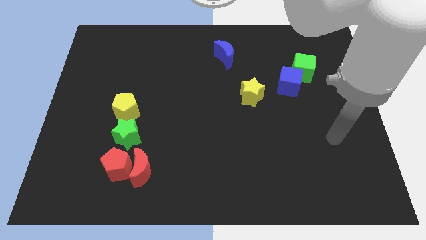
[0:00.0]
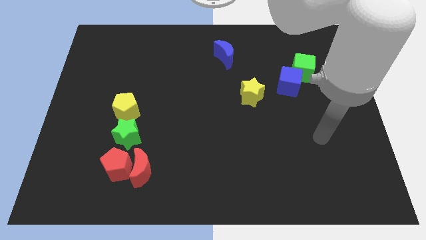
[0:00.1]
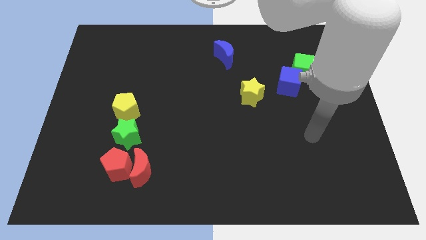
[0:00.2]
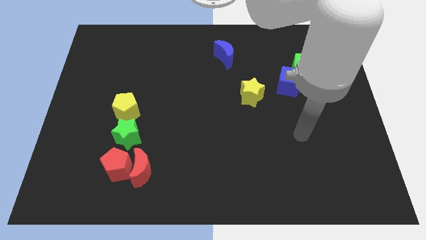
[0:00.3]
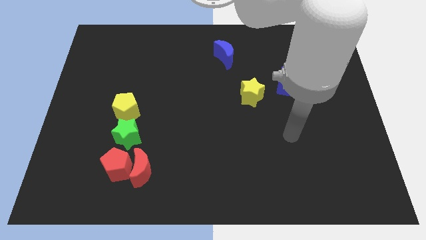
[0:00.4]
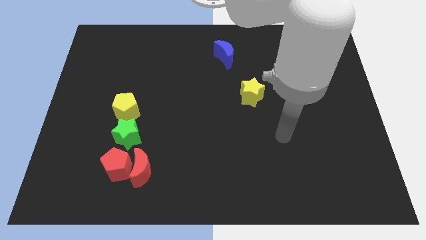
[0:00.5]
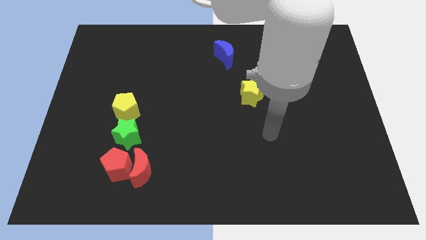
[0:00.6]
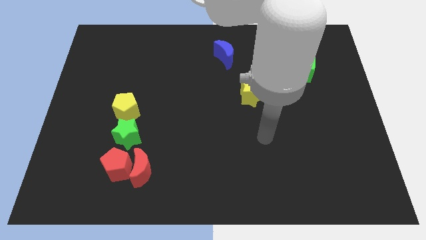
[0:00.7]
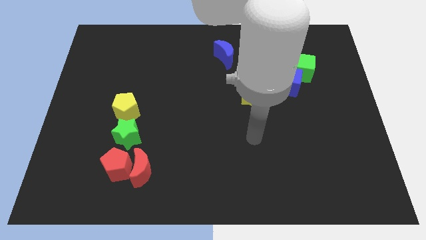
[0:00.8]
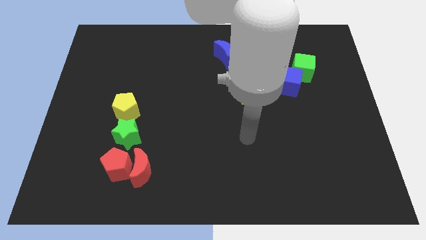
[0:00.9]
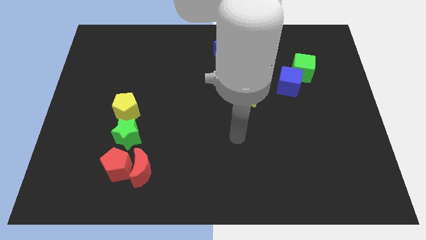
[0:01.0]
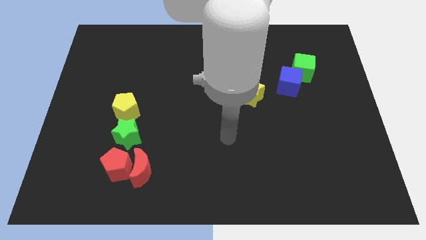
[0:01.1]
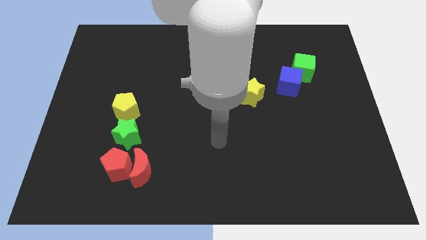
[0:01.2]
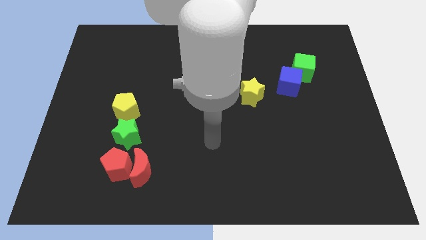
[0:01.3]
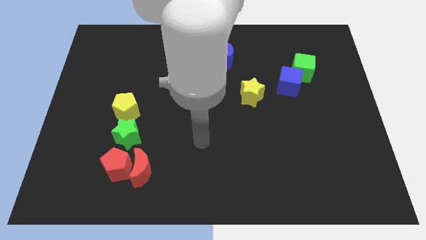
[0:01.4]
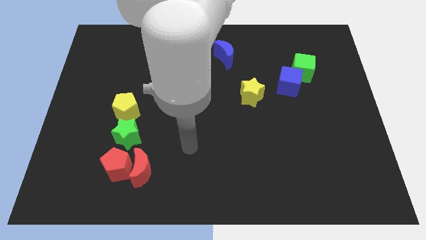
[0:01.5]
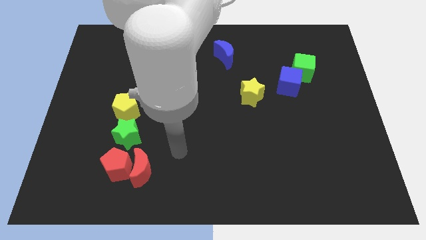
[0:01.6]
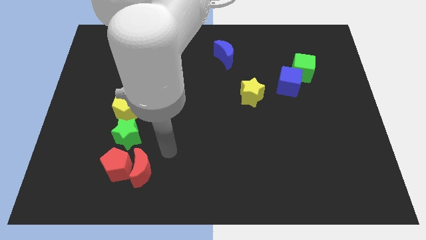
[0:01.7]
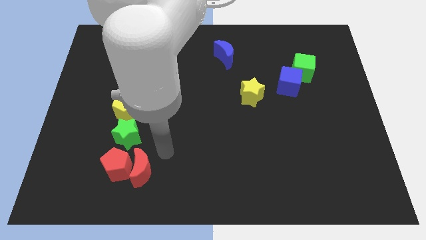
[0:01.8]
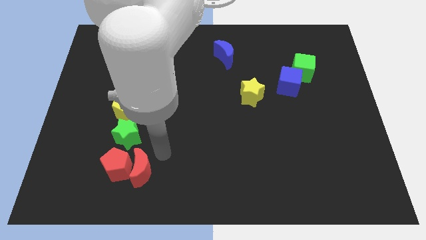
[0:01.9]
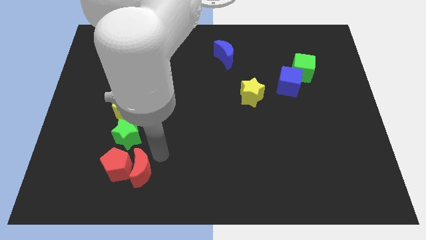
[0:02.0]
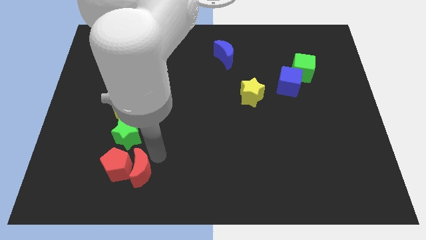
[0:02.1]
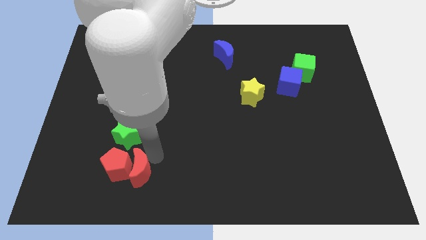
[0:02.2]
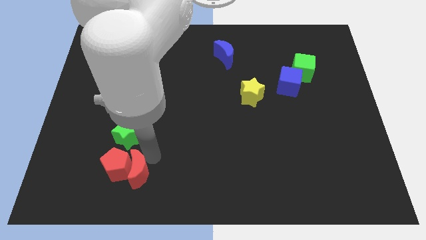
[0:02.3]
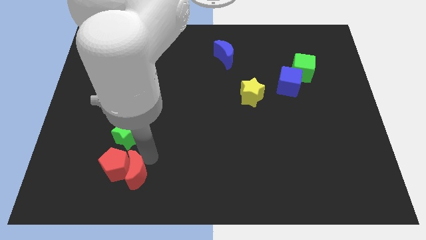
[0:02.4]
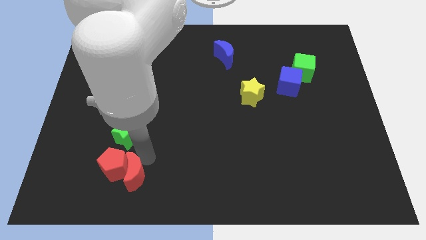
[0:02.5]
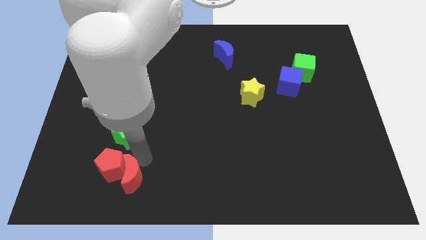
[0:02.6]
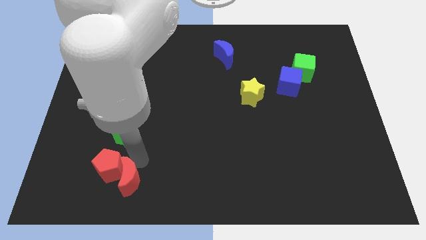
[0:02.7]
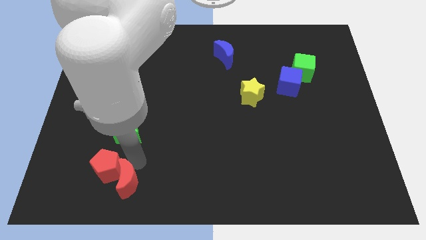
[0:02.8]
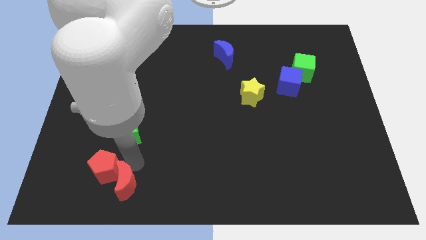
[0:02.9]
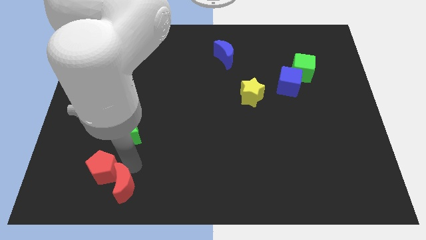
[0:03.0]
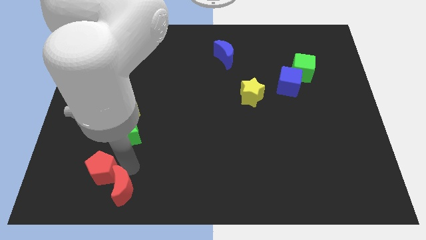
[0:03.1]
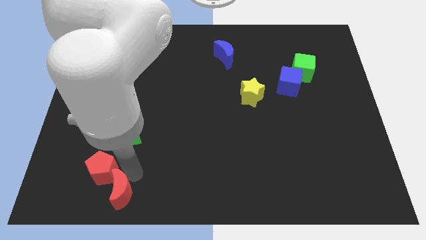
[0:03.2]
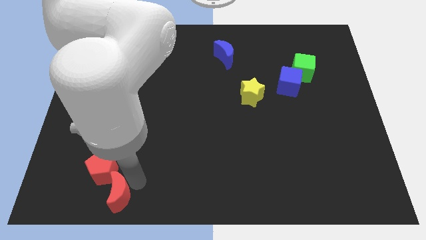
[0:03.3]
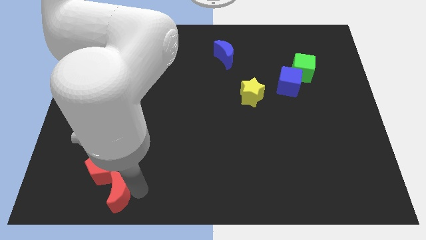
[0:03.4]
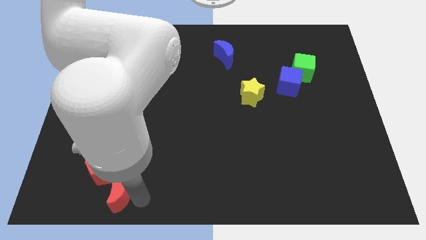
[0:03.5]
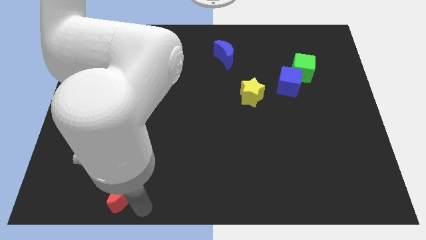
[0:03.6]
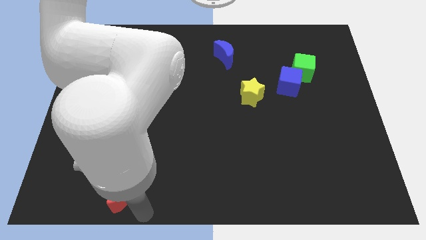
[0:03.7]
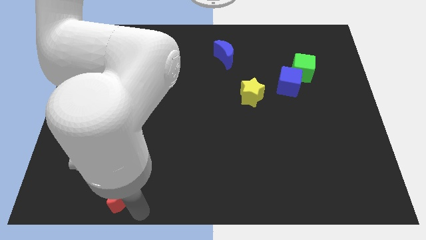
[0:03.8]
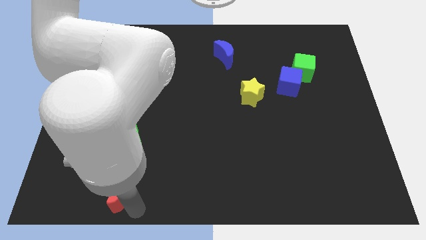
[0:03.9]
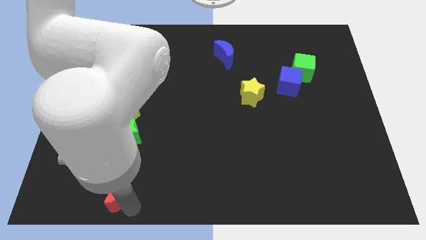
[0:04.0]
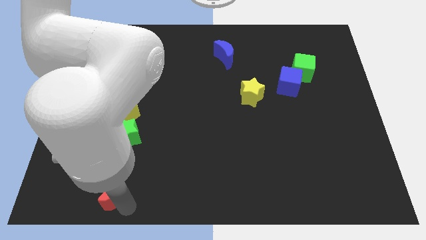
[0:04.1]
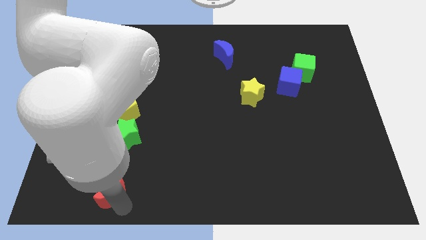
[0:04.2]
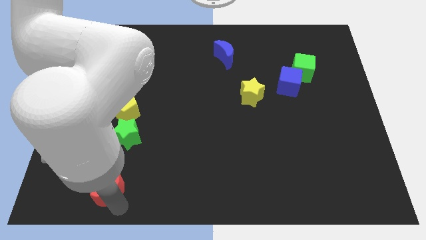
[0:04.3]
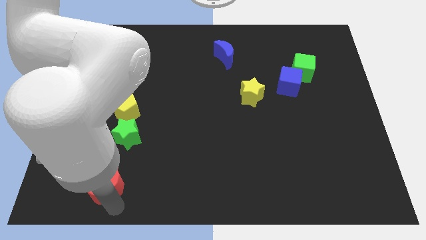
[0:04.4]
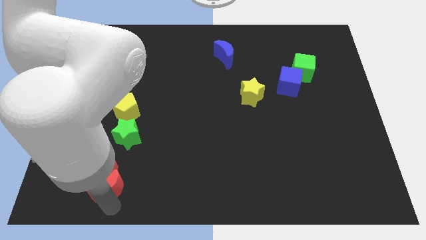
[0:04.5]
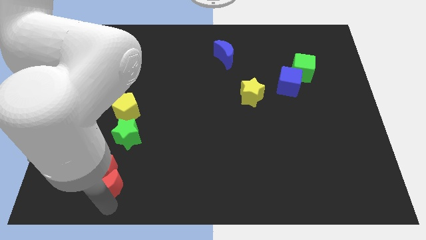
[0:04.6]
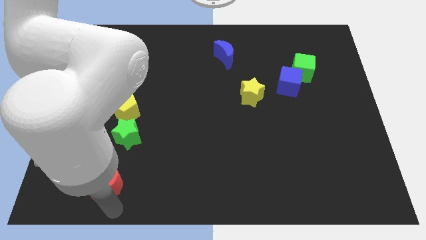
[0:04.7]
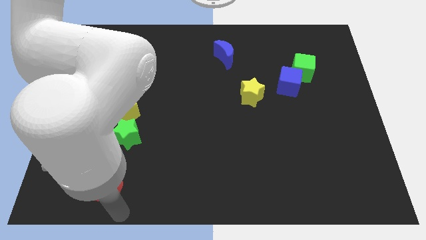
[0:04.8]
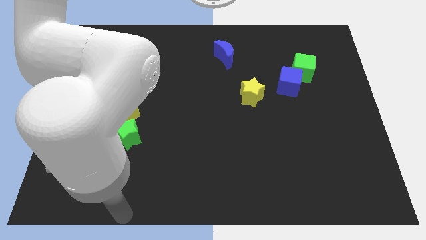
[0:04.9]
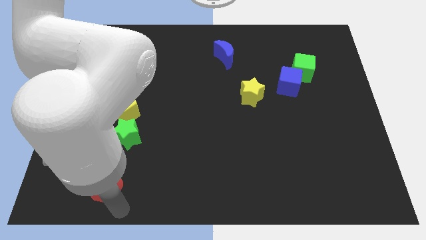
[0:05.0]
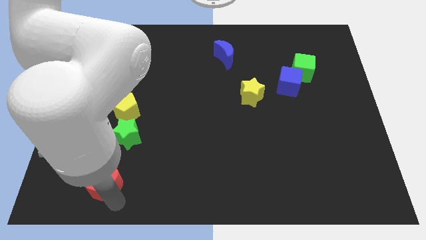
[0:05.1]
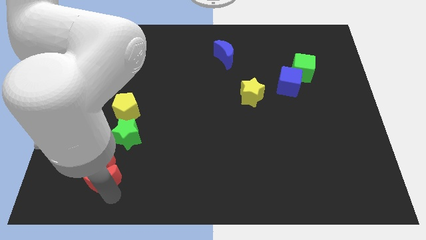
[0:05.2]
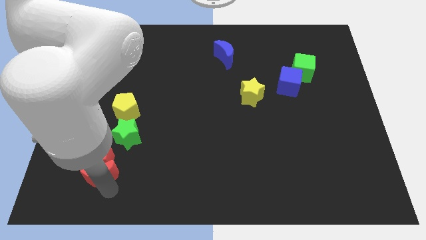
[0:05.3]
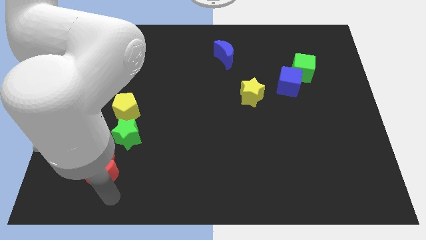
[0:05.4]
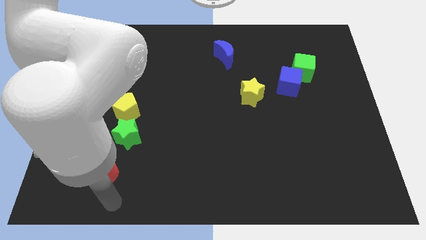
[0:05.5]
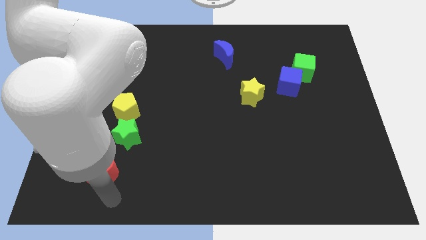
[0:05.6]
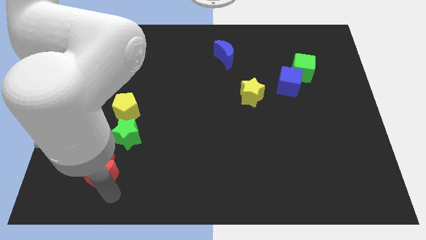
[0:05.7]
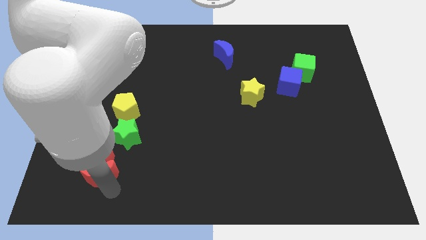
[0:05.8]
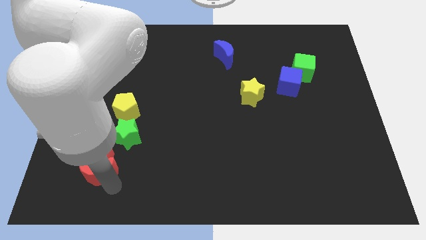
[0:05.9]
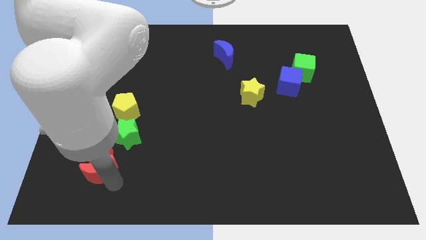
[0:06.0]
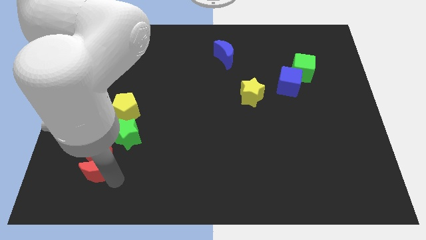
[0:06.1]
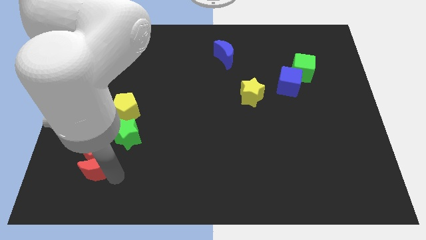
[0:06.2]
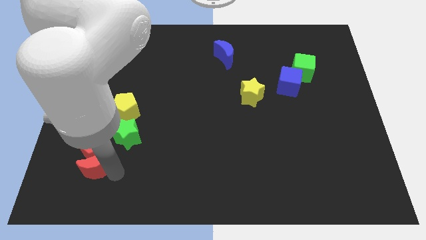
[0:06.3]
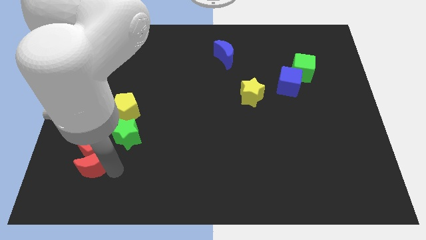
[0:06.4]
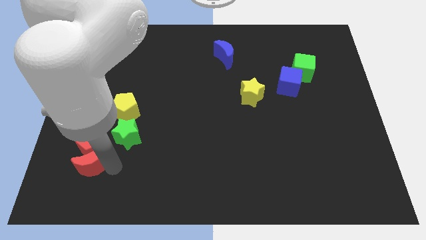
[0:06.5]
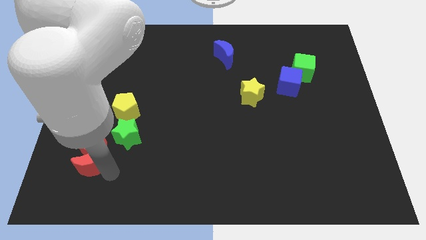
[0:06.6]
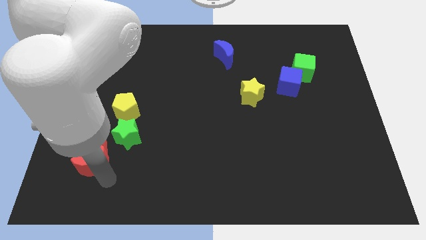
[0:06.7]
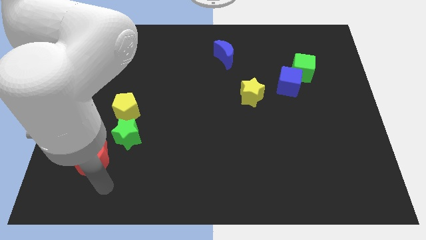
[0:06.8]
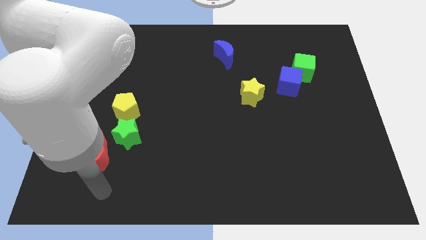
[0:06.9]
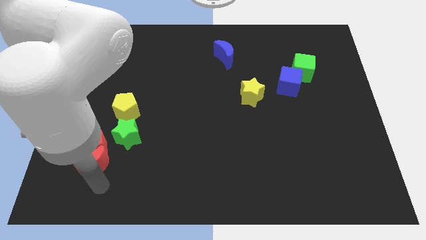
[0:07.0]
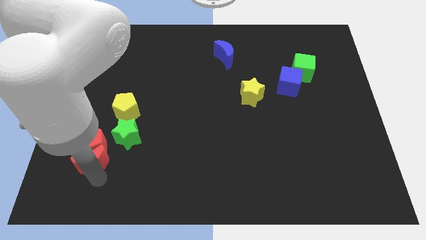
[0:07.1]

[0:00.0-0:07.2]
slightly push the red moon diagonally up and to the left

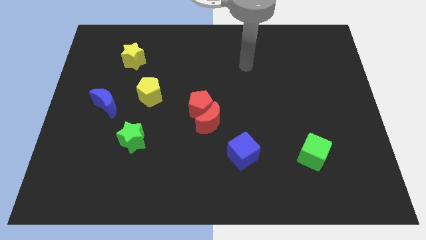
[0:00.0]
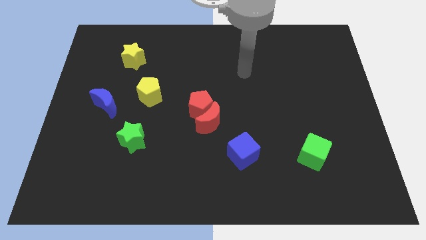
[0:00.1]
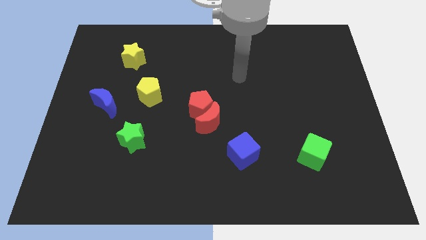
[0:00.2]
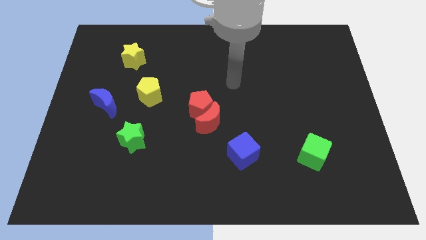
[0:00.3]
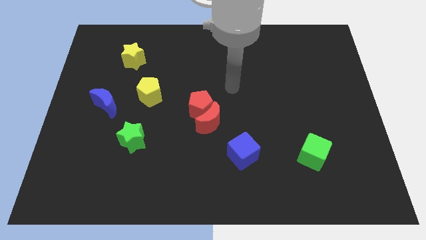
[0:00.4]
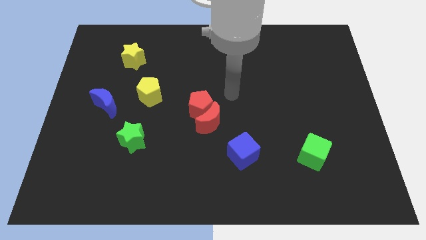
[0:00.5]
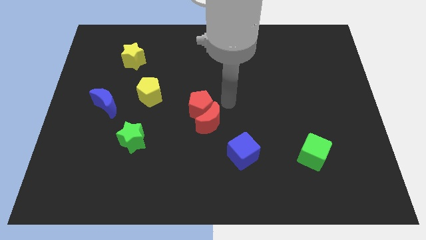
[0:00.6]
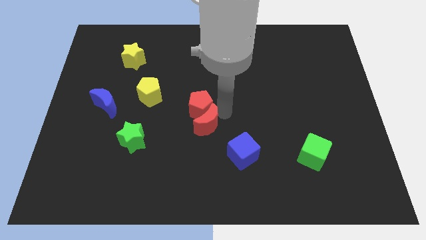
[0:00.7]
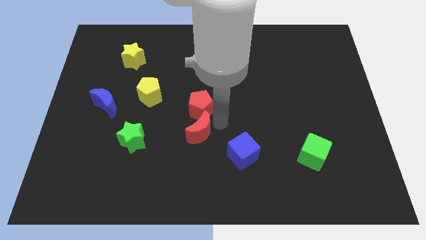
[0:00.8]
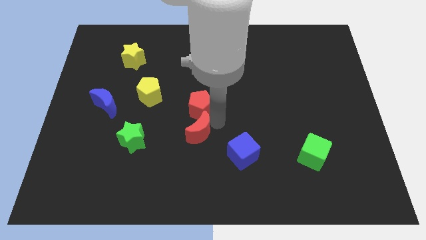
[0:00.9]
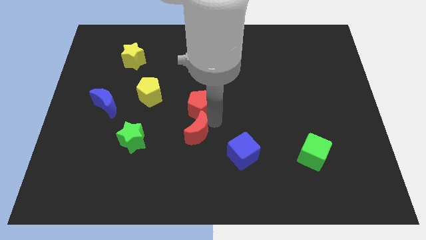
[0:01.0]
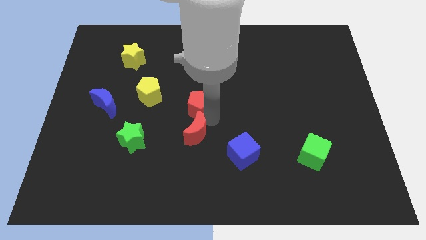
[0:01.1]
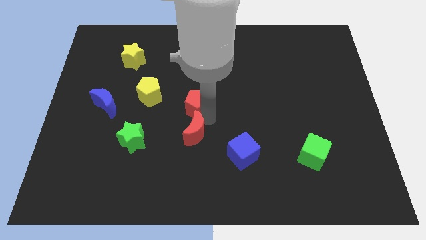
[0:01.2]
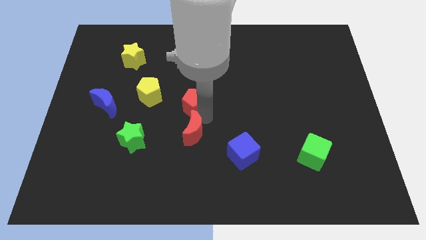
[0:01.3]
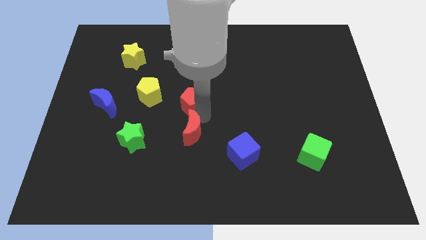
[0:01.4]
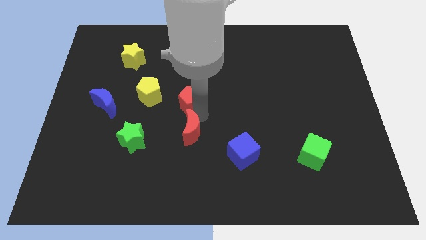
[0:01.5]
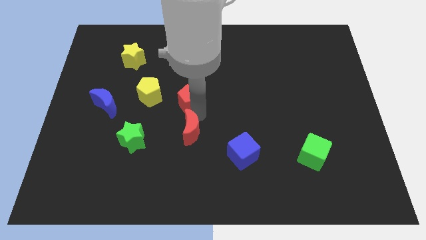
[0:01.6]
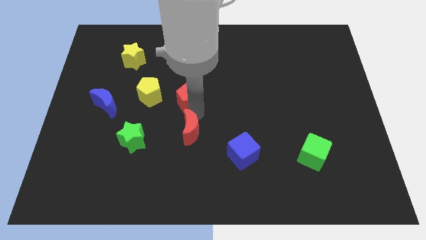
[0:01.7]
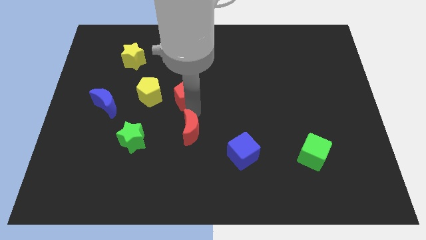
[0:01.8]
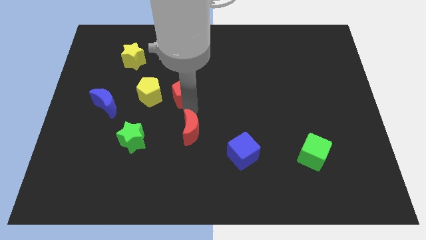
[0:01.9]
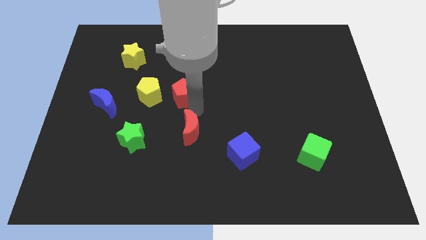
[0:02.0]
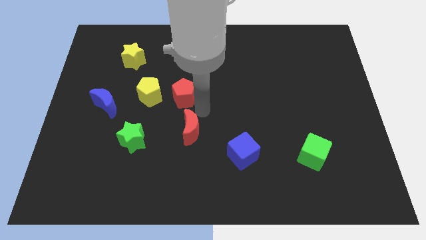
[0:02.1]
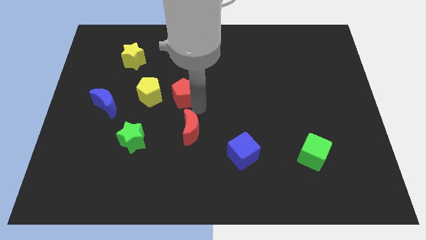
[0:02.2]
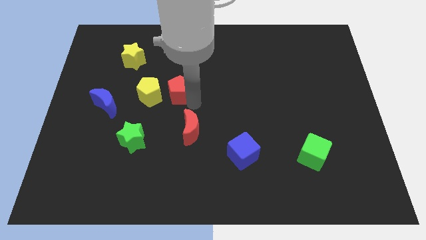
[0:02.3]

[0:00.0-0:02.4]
slightly slide the red pentagon upwards and to the left
